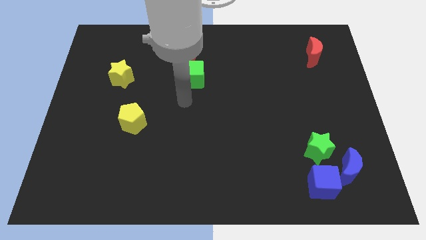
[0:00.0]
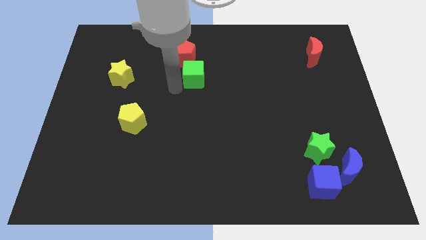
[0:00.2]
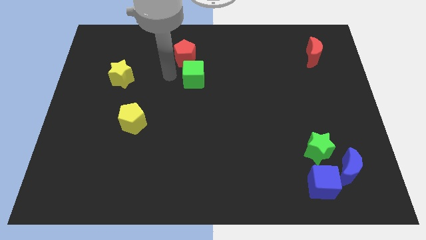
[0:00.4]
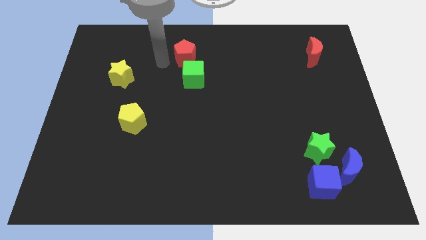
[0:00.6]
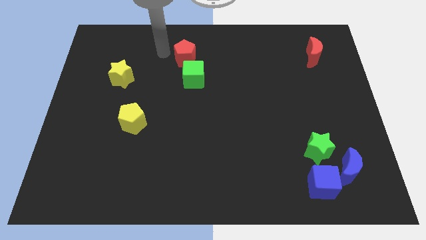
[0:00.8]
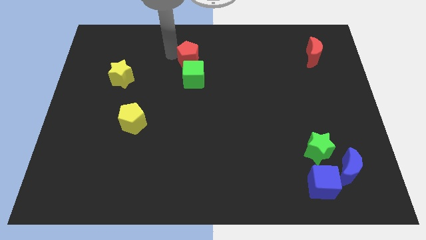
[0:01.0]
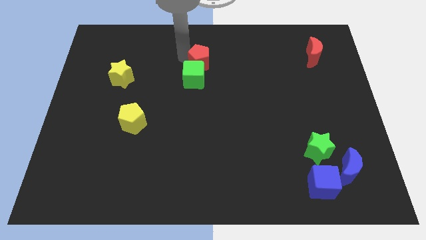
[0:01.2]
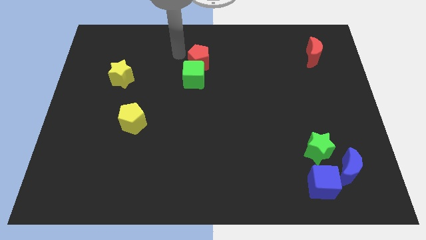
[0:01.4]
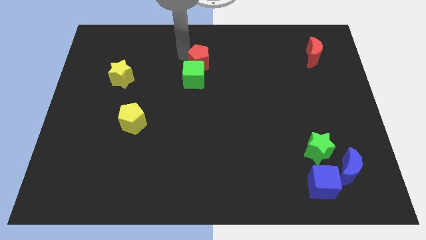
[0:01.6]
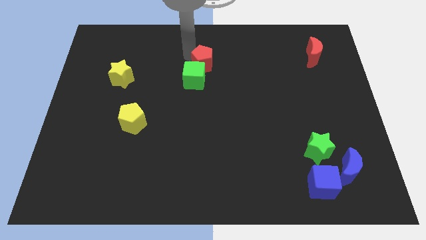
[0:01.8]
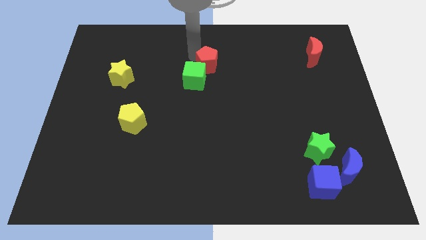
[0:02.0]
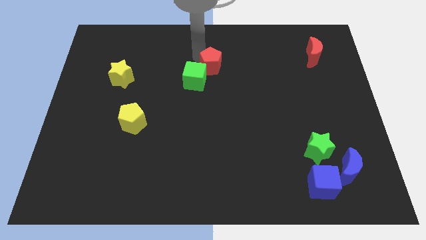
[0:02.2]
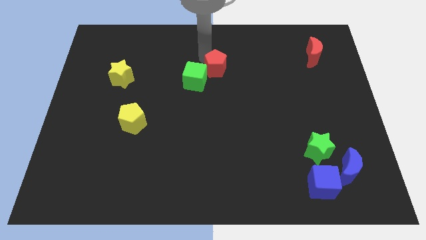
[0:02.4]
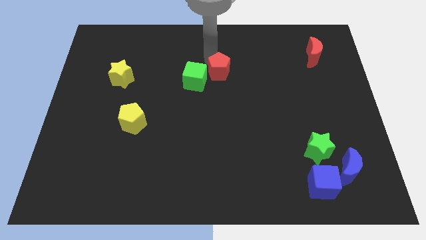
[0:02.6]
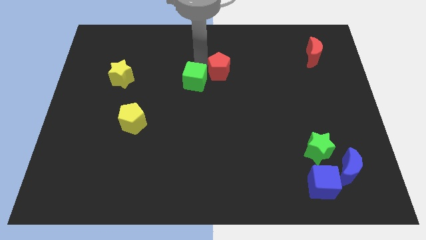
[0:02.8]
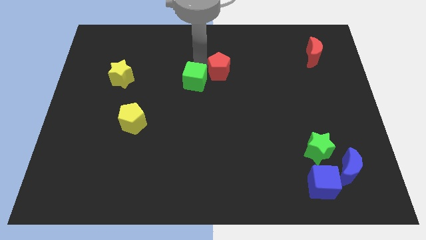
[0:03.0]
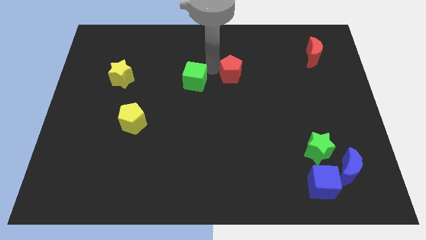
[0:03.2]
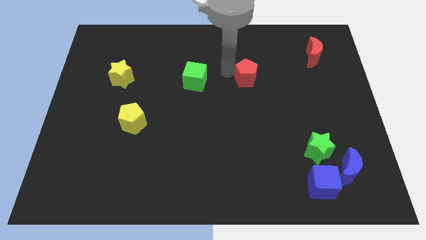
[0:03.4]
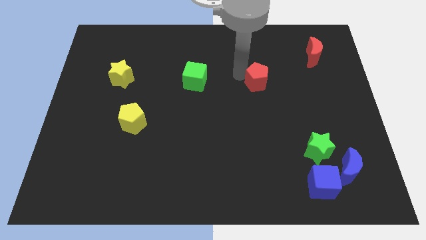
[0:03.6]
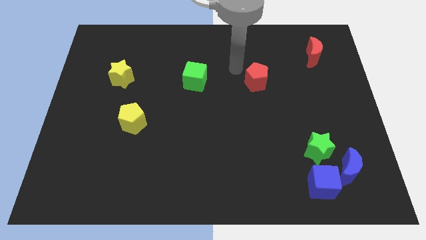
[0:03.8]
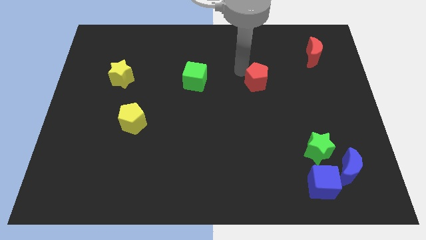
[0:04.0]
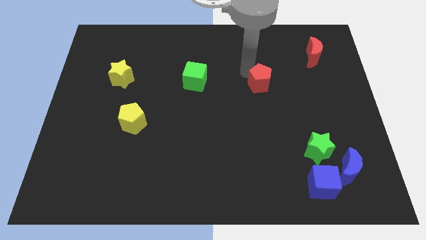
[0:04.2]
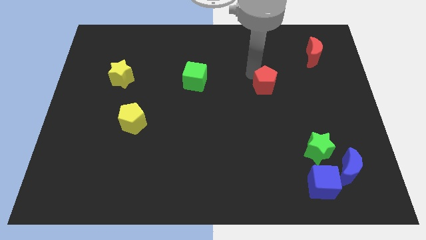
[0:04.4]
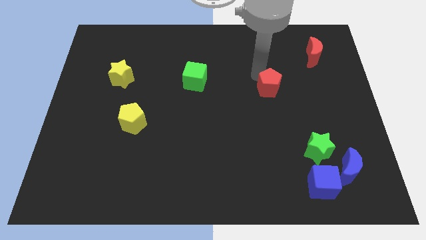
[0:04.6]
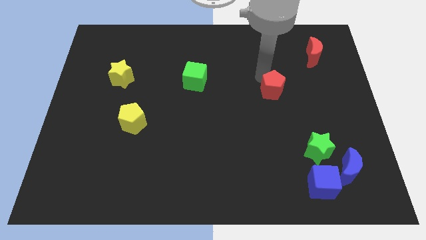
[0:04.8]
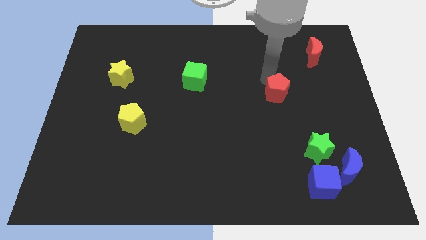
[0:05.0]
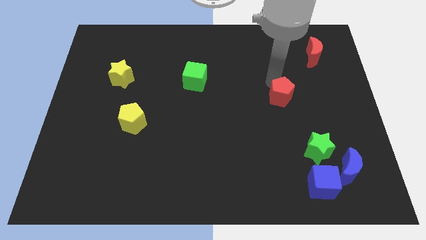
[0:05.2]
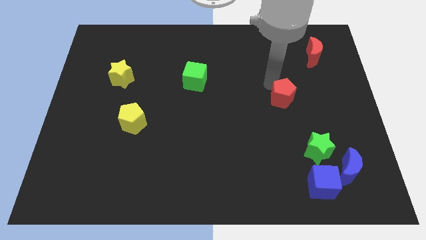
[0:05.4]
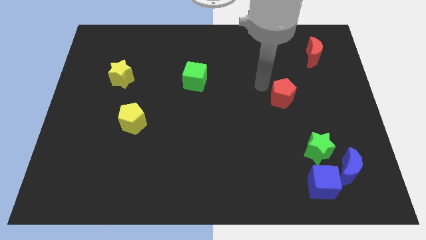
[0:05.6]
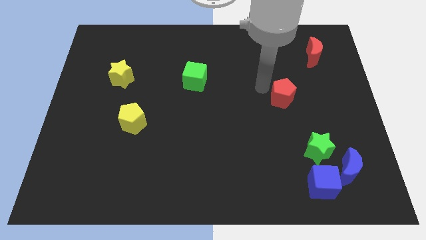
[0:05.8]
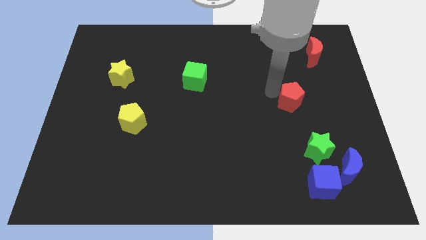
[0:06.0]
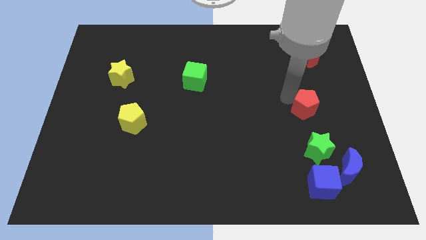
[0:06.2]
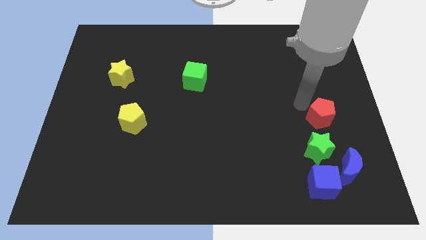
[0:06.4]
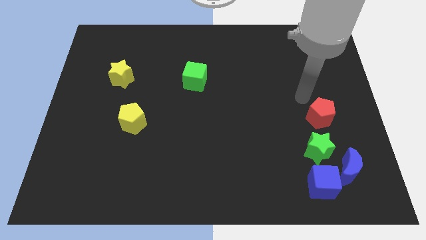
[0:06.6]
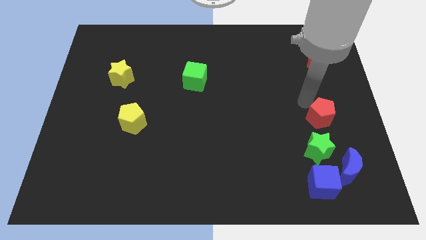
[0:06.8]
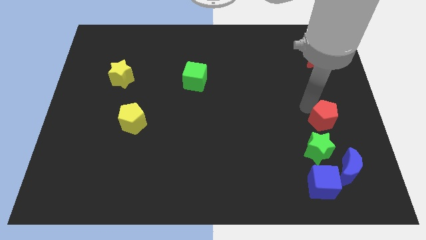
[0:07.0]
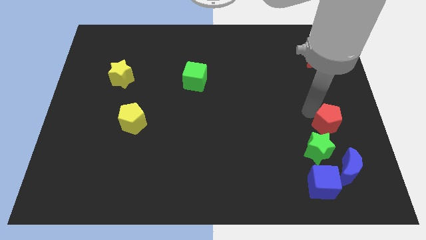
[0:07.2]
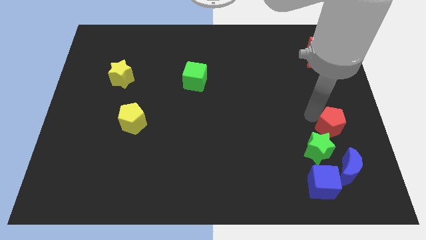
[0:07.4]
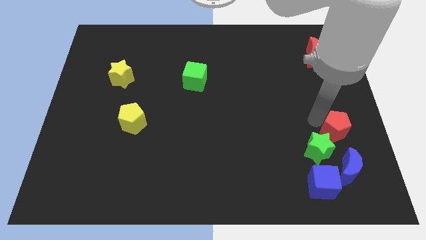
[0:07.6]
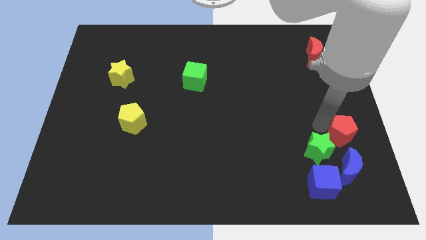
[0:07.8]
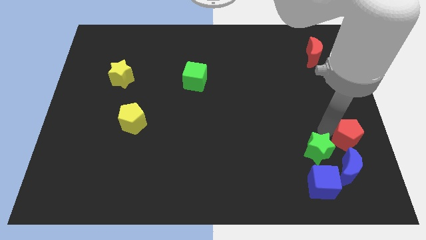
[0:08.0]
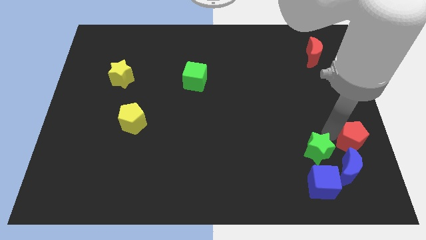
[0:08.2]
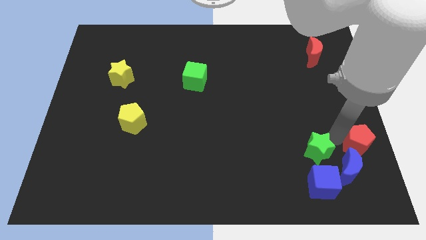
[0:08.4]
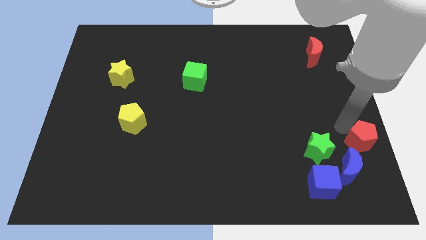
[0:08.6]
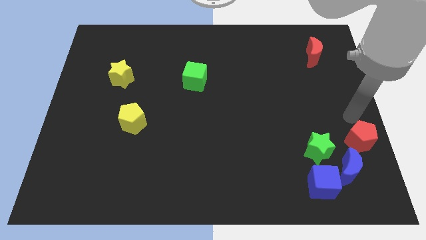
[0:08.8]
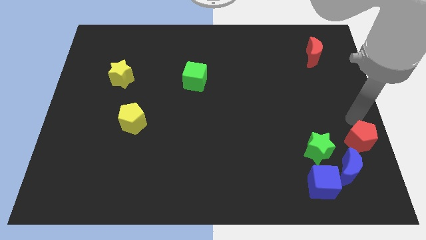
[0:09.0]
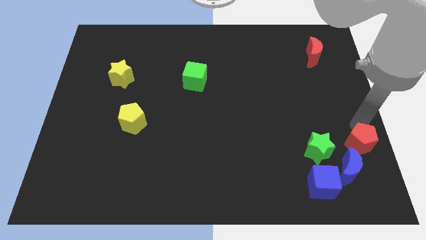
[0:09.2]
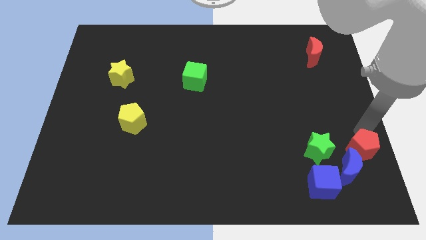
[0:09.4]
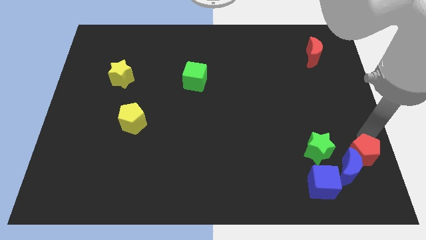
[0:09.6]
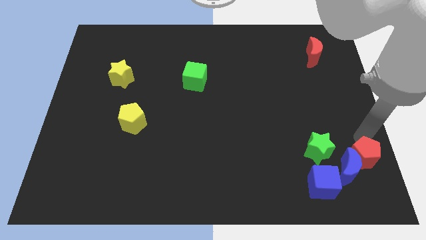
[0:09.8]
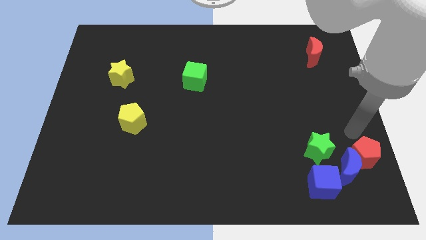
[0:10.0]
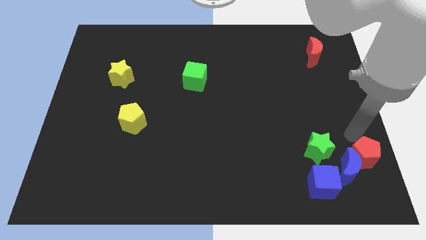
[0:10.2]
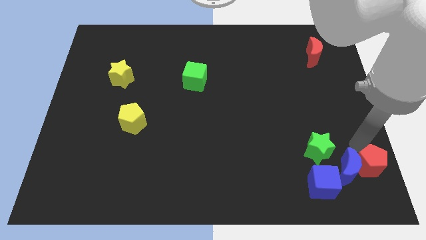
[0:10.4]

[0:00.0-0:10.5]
push the red pentagon to the bottom right corner

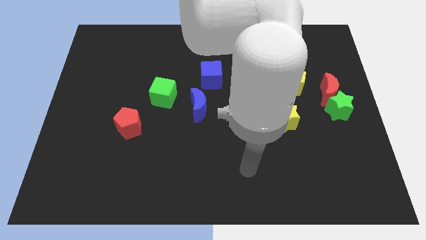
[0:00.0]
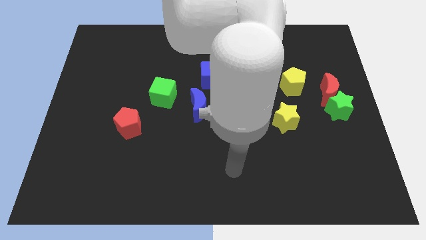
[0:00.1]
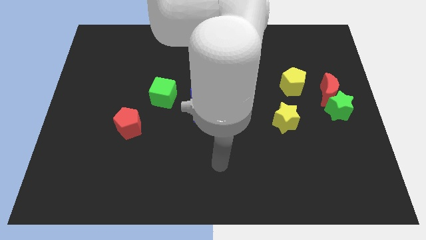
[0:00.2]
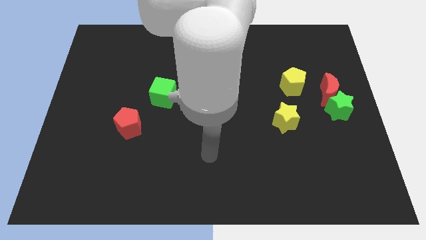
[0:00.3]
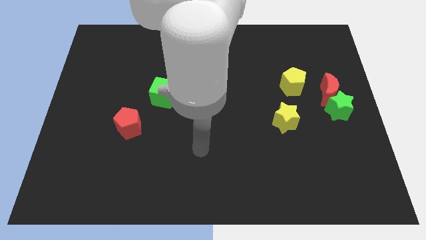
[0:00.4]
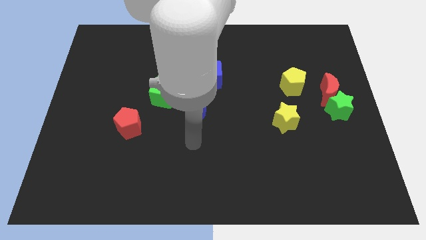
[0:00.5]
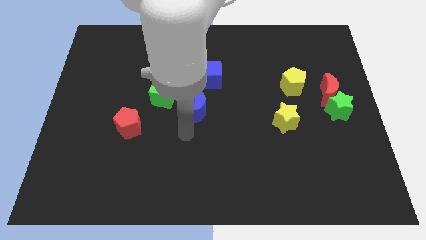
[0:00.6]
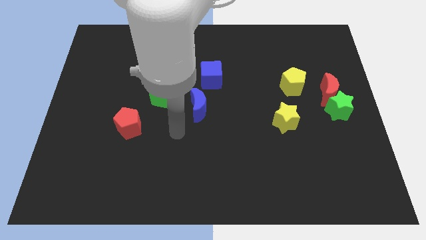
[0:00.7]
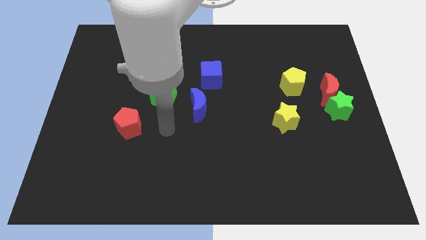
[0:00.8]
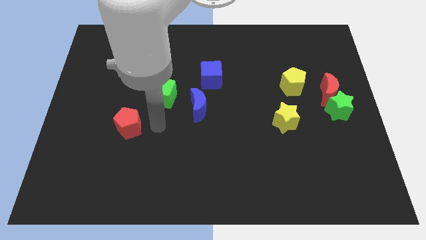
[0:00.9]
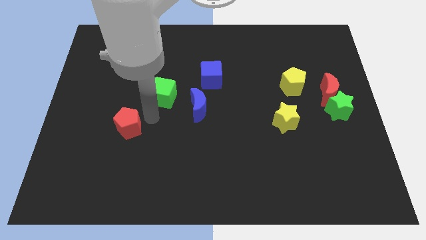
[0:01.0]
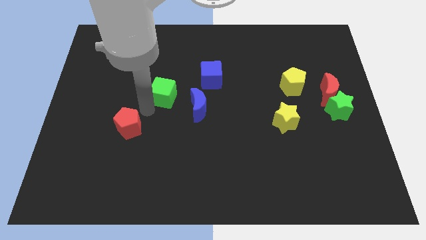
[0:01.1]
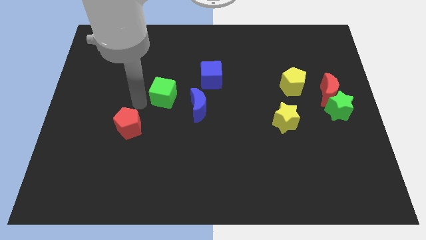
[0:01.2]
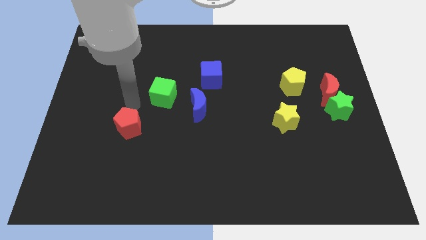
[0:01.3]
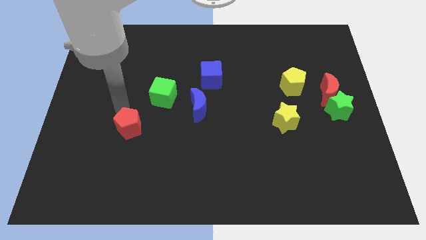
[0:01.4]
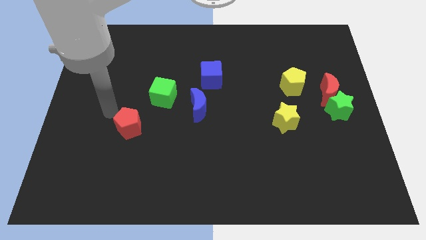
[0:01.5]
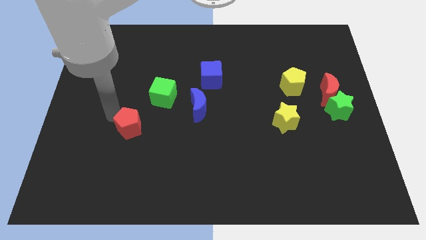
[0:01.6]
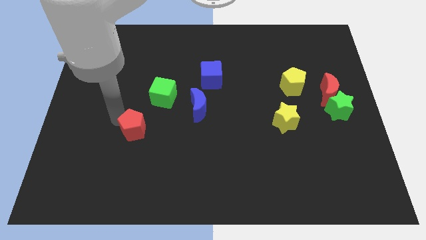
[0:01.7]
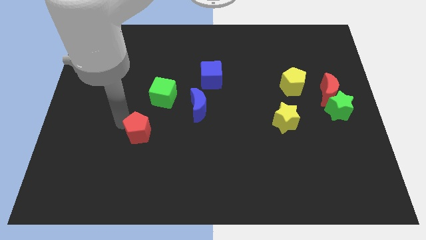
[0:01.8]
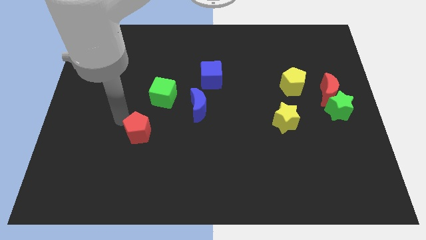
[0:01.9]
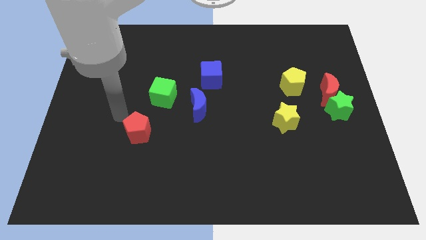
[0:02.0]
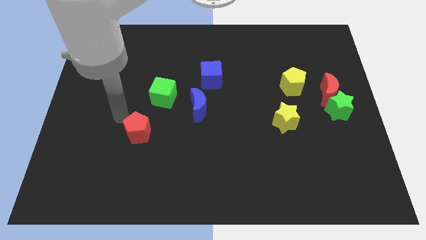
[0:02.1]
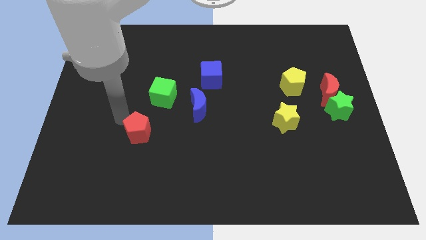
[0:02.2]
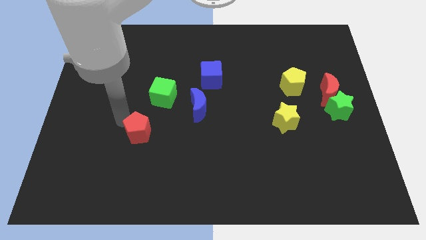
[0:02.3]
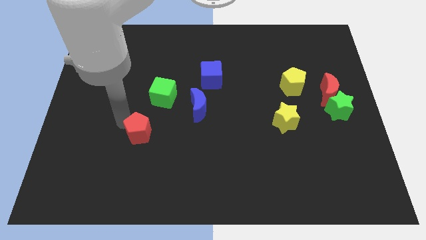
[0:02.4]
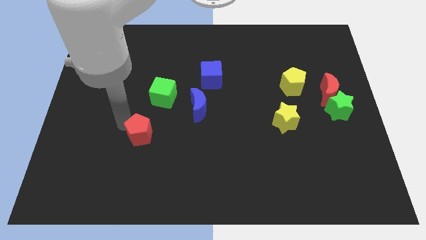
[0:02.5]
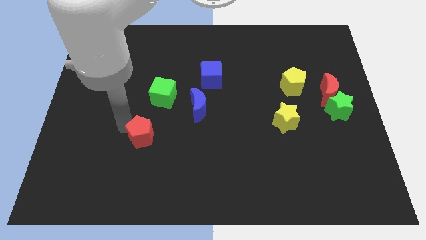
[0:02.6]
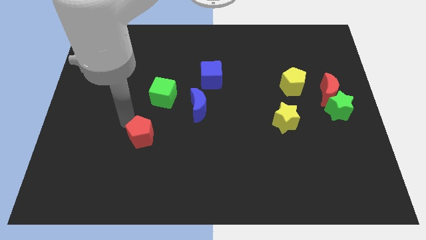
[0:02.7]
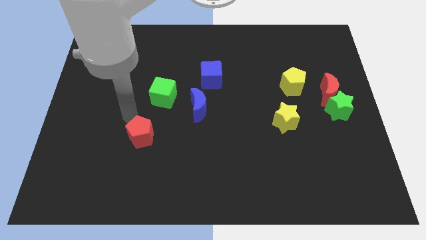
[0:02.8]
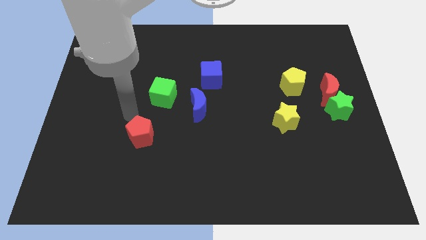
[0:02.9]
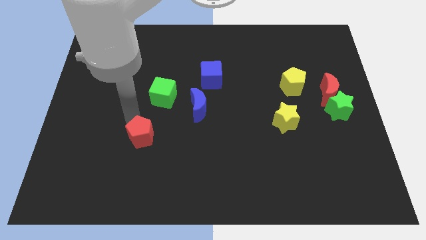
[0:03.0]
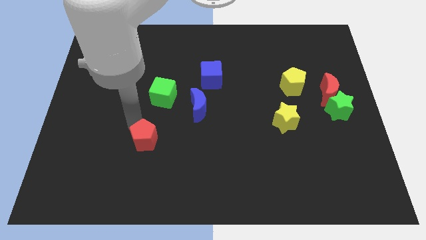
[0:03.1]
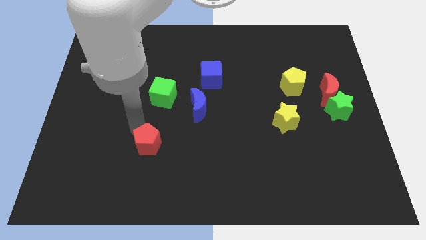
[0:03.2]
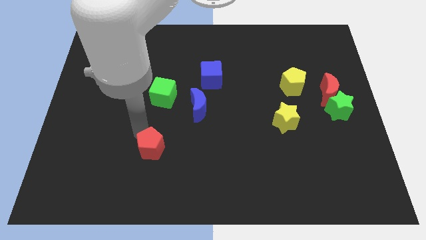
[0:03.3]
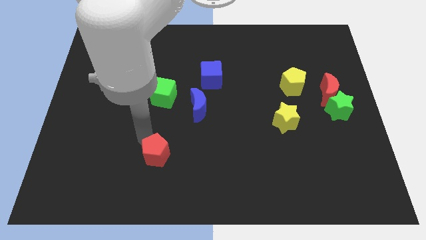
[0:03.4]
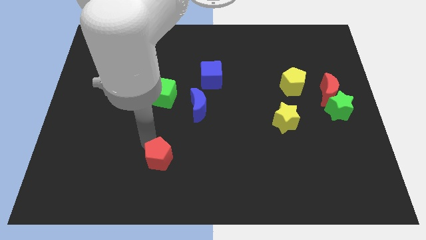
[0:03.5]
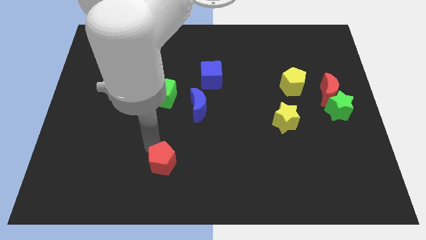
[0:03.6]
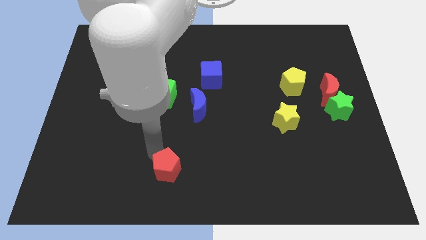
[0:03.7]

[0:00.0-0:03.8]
push the red pentagon to the bottom side
